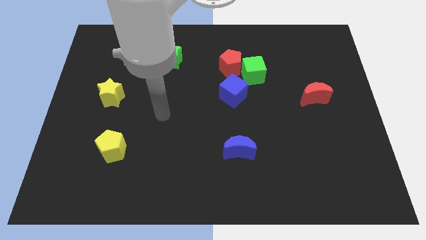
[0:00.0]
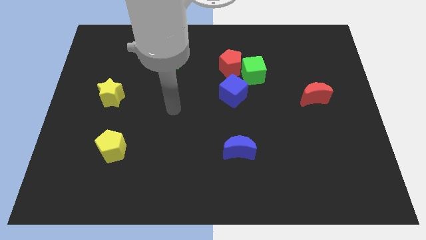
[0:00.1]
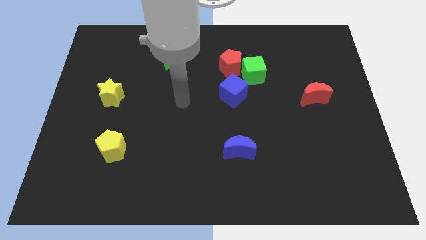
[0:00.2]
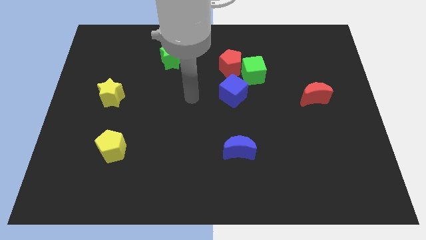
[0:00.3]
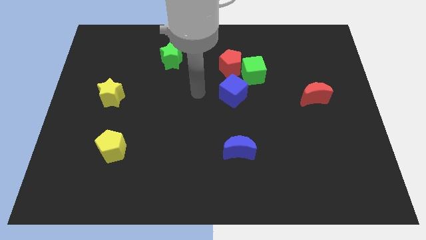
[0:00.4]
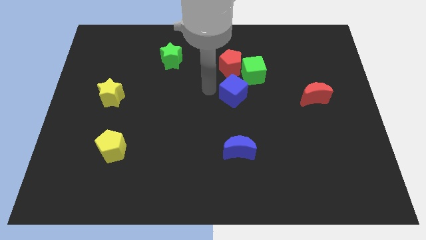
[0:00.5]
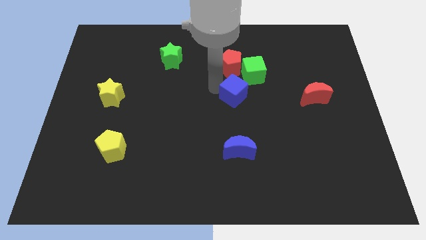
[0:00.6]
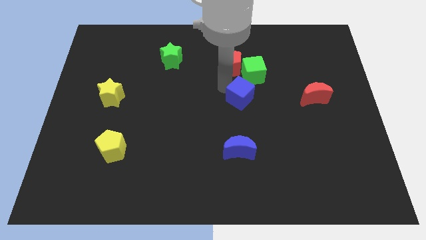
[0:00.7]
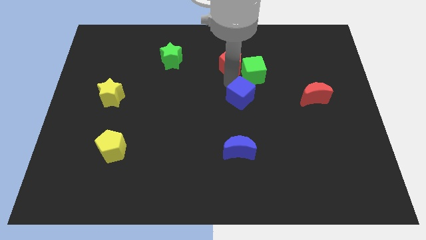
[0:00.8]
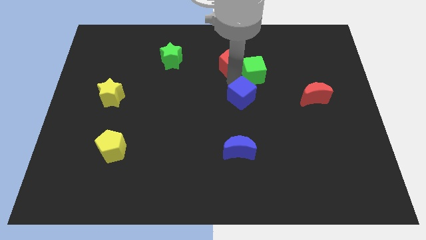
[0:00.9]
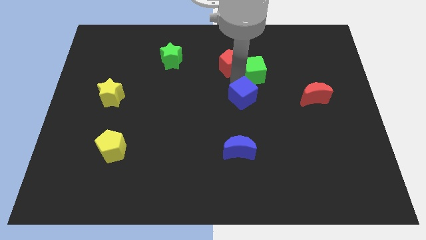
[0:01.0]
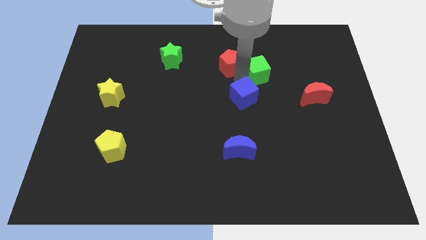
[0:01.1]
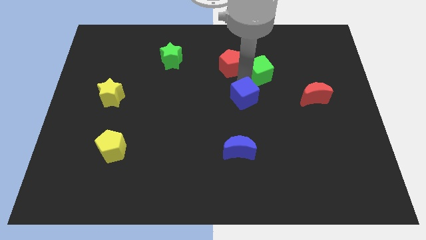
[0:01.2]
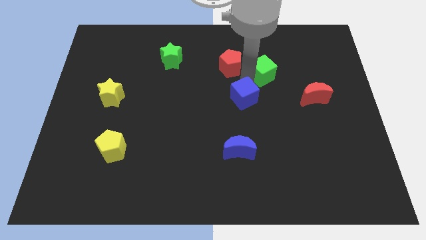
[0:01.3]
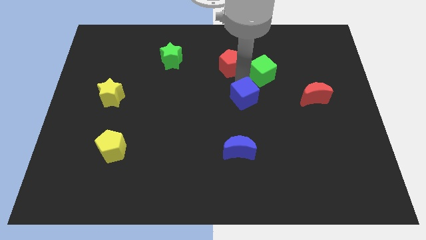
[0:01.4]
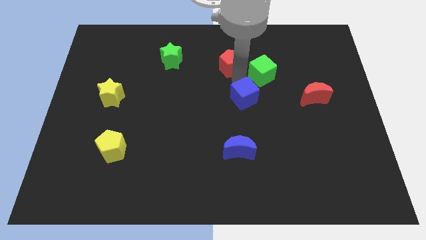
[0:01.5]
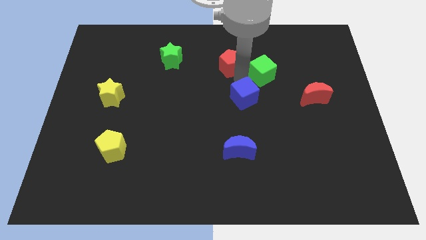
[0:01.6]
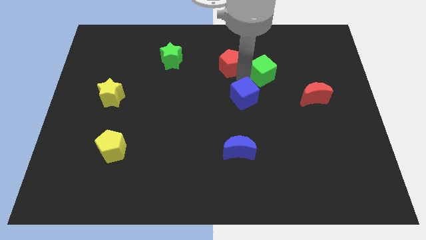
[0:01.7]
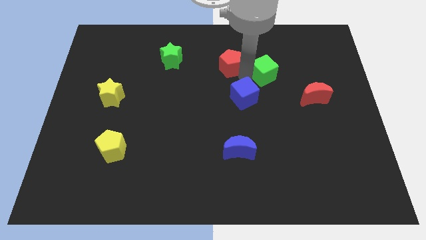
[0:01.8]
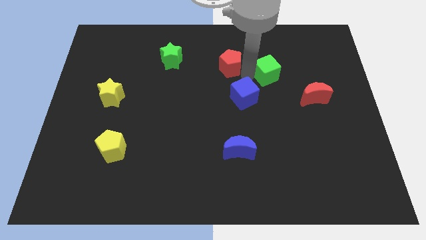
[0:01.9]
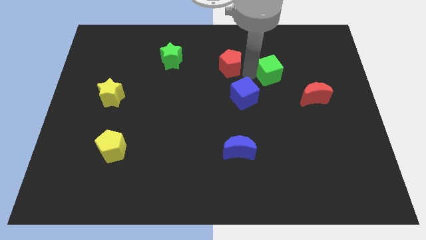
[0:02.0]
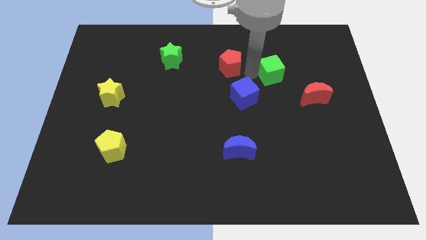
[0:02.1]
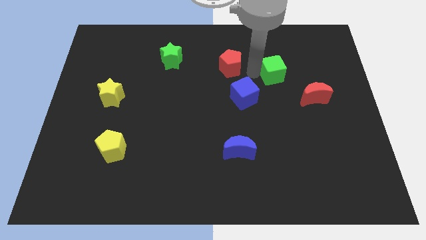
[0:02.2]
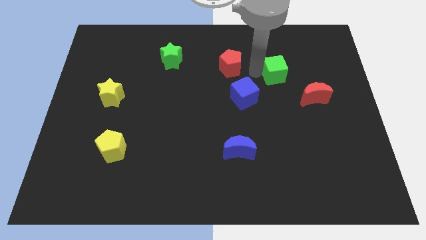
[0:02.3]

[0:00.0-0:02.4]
separate the green cube from the red pentagon and blue cube

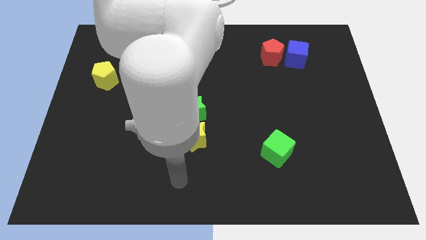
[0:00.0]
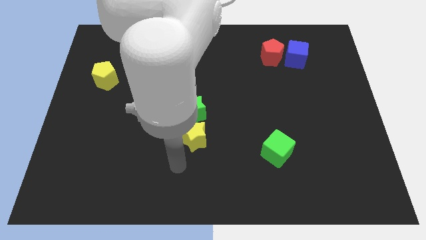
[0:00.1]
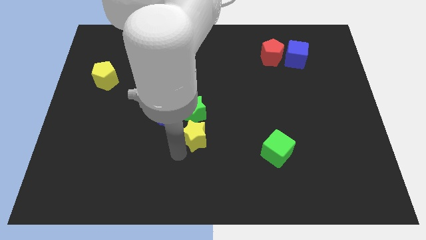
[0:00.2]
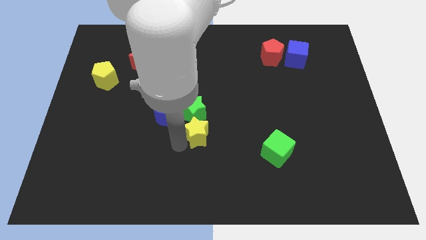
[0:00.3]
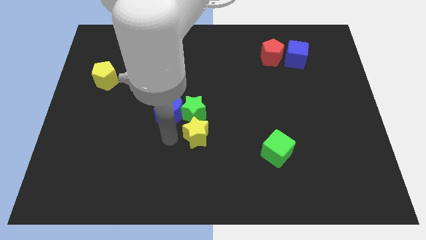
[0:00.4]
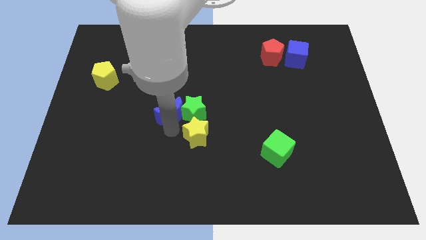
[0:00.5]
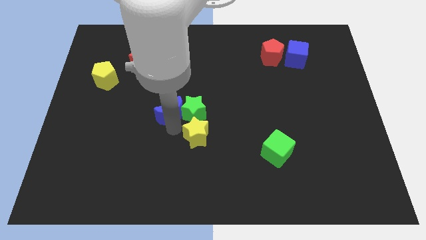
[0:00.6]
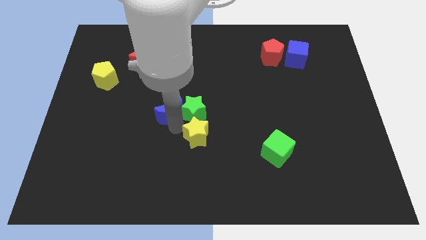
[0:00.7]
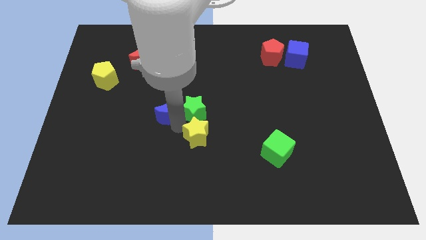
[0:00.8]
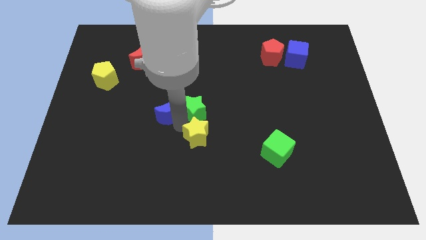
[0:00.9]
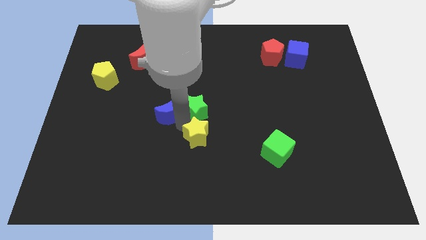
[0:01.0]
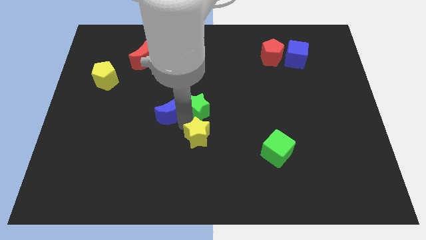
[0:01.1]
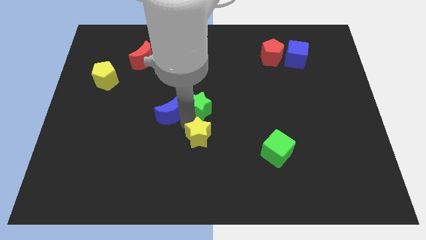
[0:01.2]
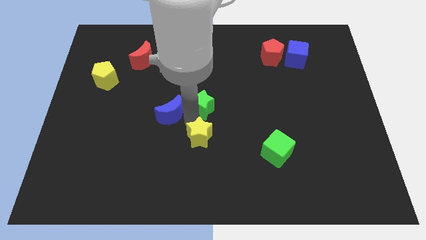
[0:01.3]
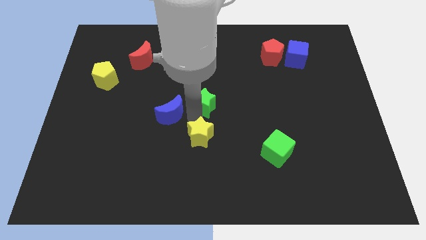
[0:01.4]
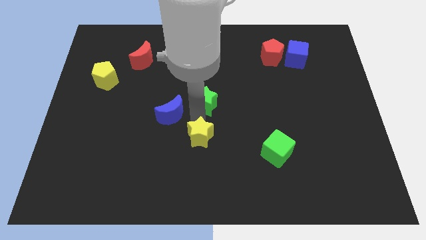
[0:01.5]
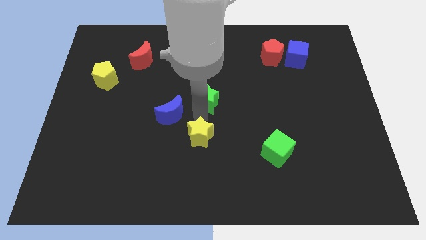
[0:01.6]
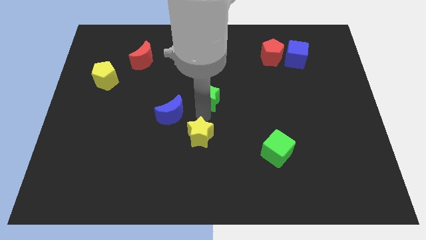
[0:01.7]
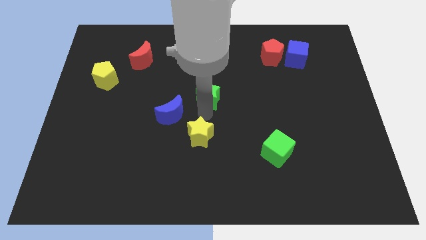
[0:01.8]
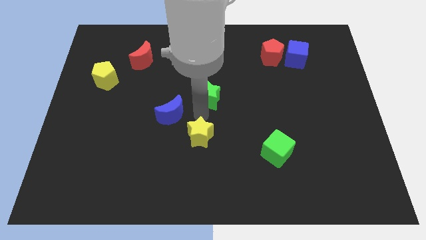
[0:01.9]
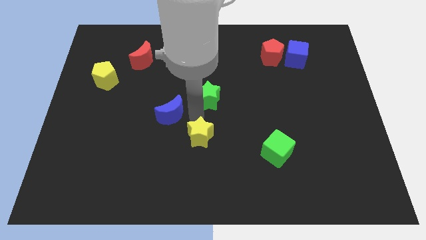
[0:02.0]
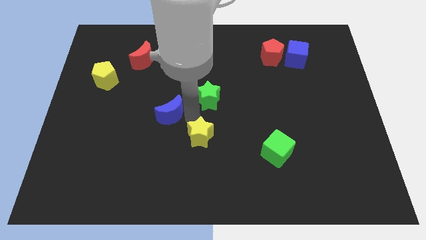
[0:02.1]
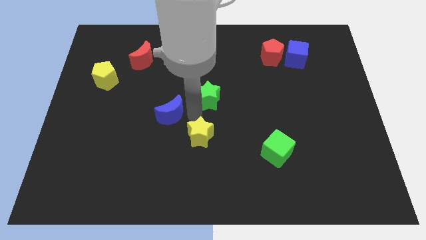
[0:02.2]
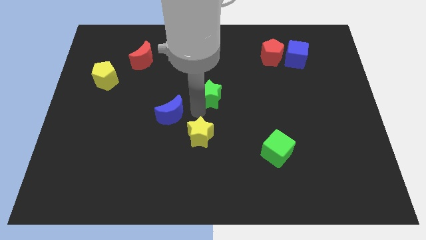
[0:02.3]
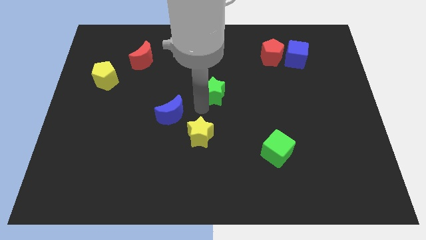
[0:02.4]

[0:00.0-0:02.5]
pull the green star apart from the blue moon and yellow star

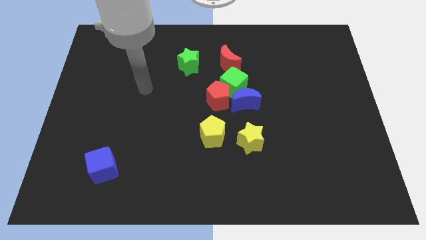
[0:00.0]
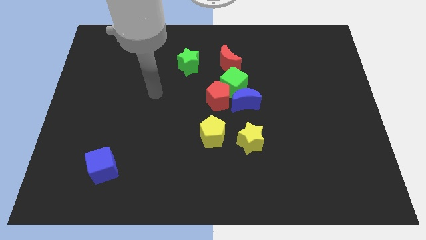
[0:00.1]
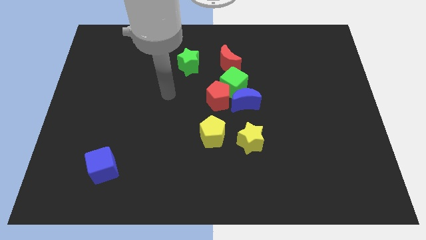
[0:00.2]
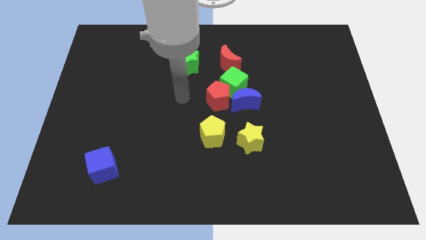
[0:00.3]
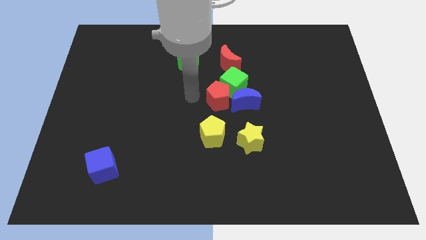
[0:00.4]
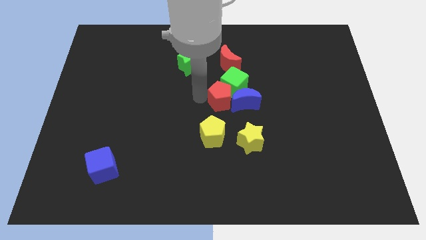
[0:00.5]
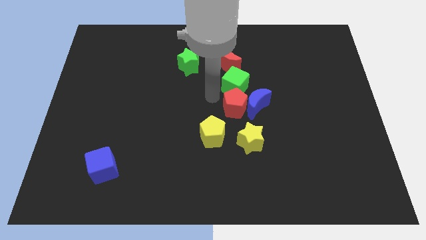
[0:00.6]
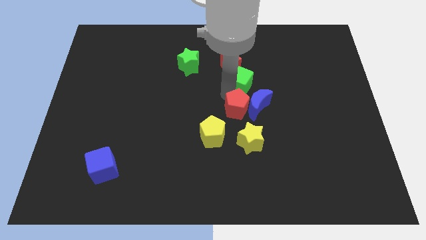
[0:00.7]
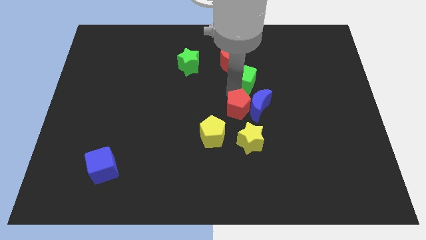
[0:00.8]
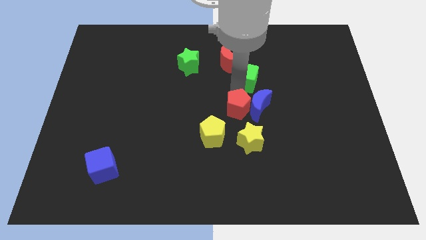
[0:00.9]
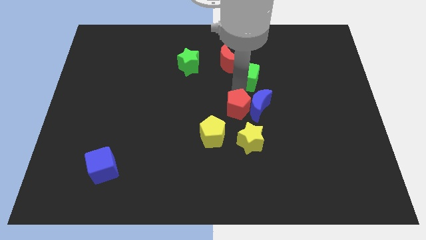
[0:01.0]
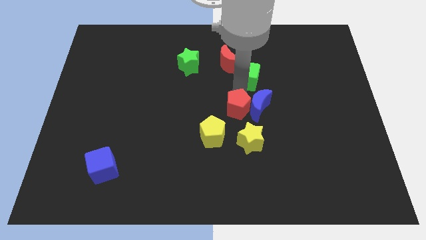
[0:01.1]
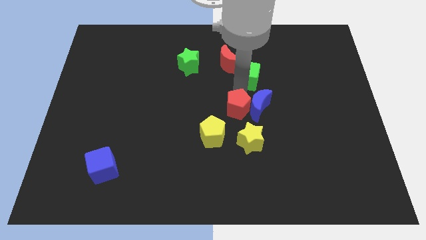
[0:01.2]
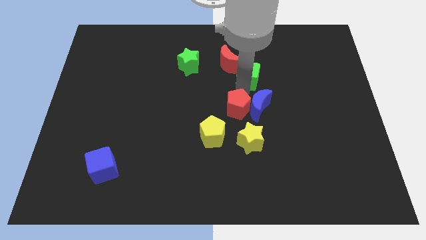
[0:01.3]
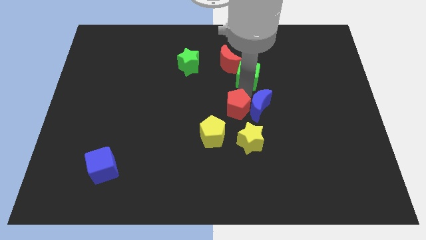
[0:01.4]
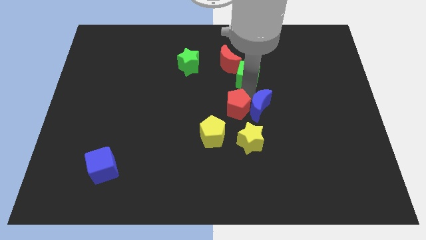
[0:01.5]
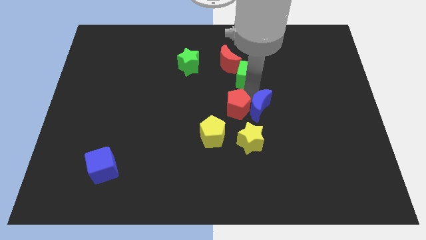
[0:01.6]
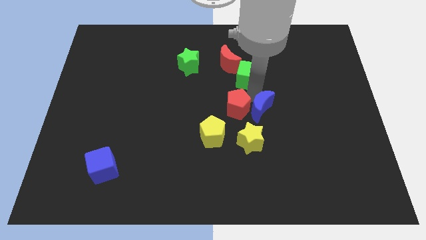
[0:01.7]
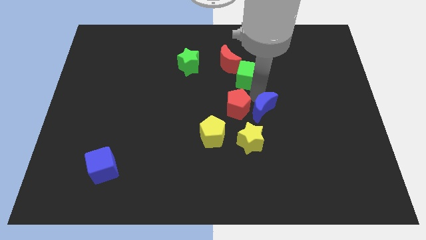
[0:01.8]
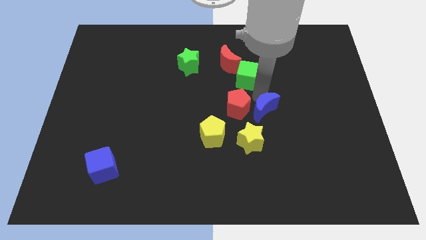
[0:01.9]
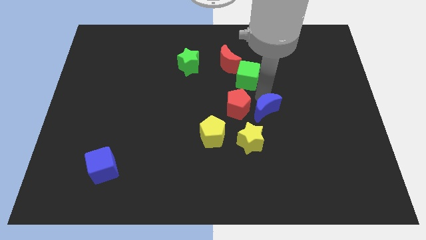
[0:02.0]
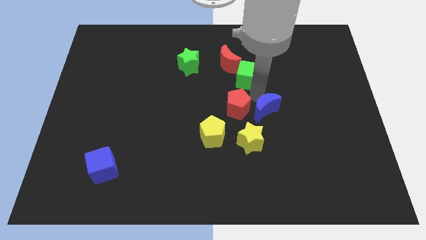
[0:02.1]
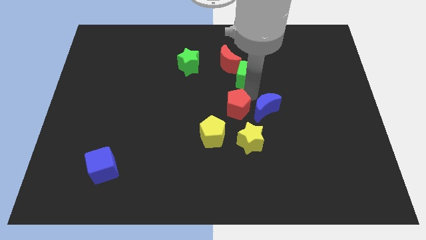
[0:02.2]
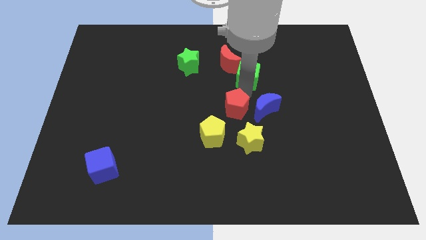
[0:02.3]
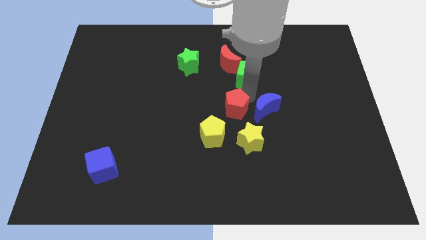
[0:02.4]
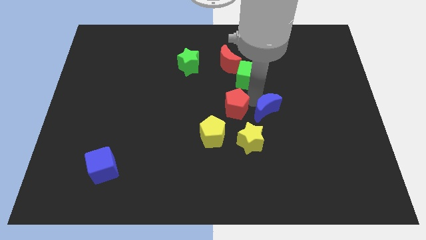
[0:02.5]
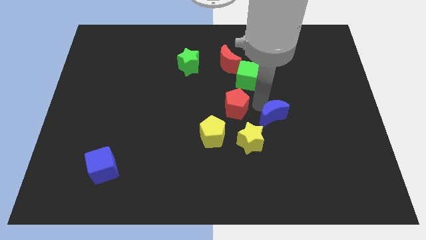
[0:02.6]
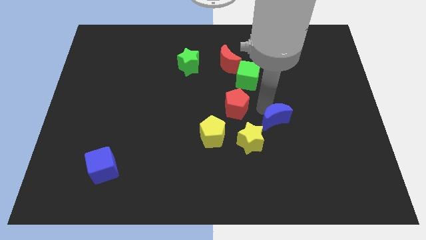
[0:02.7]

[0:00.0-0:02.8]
pull the blue moon apart from the green cube and red pentagon

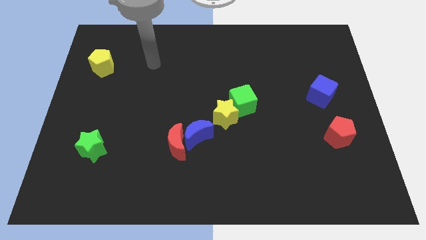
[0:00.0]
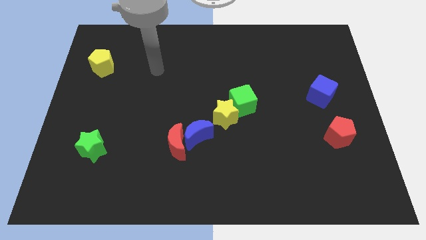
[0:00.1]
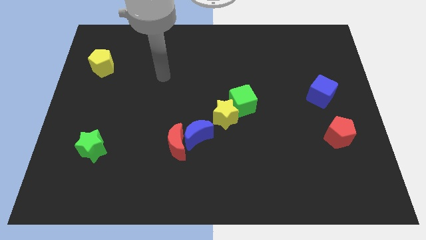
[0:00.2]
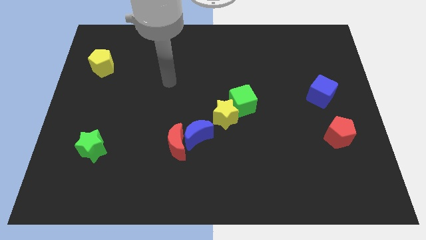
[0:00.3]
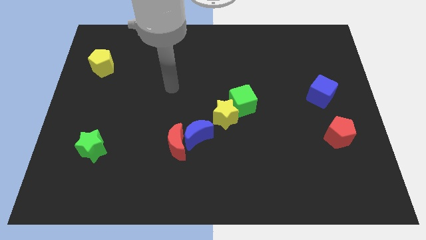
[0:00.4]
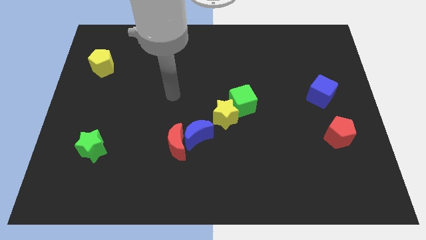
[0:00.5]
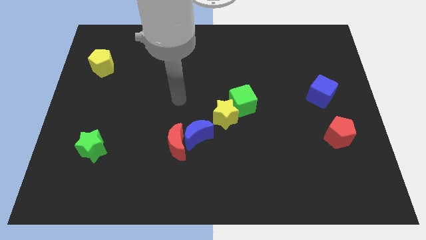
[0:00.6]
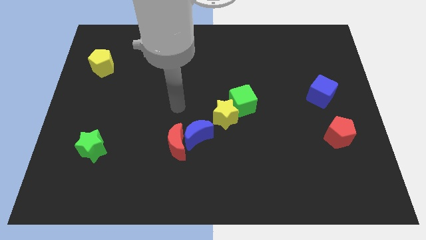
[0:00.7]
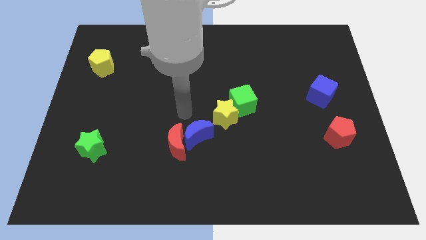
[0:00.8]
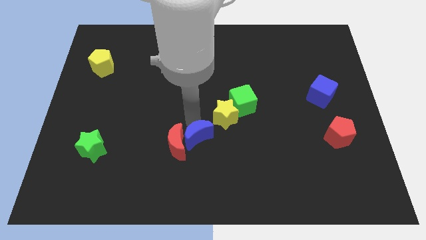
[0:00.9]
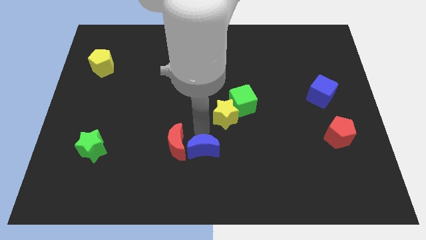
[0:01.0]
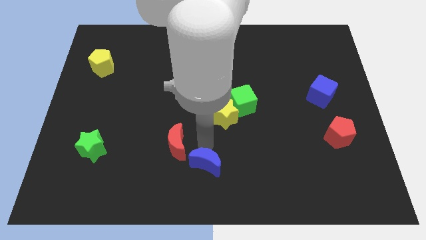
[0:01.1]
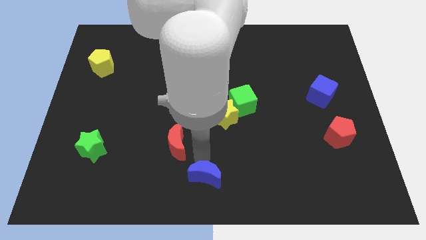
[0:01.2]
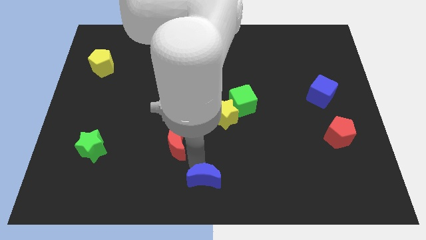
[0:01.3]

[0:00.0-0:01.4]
separate the red moon from the blue moon

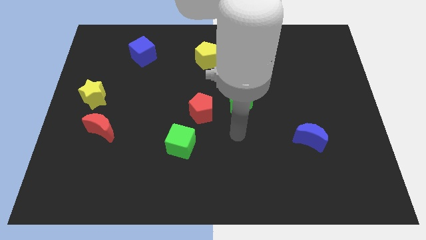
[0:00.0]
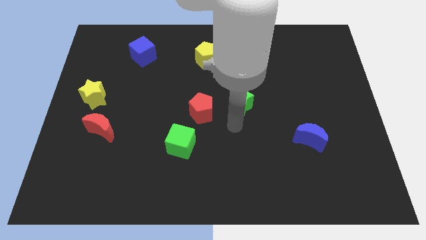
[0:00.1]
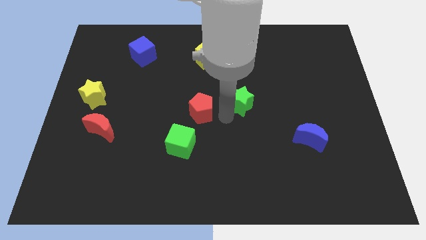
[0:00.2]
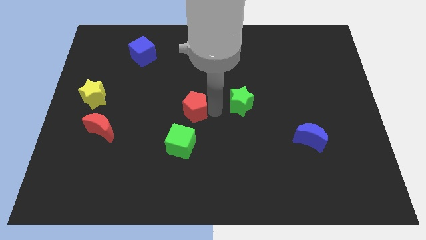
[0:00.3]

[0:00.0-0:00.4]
separate the green star from the red pentagon
